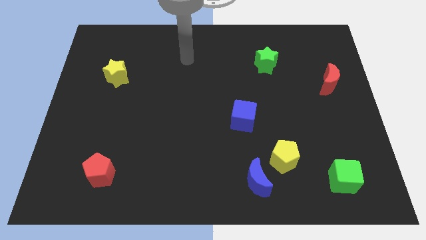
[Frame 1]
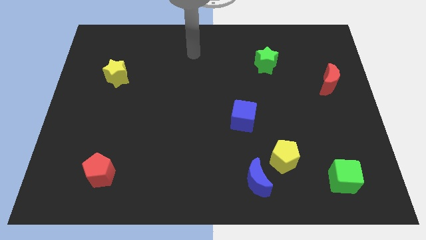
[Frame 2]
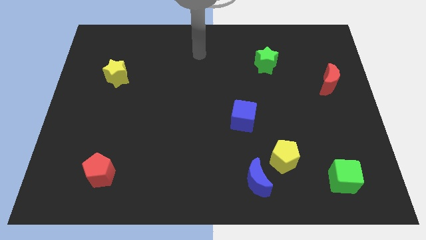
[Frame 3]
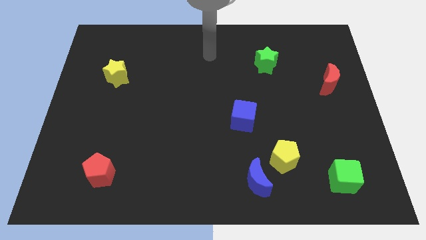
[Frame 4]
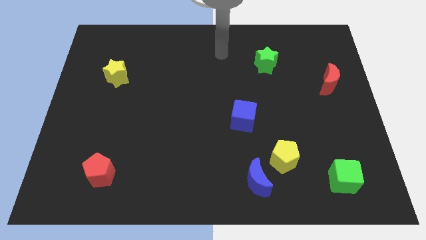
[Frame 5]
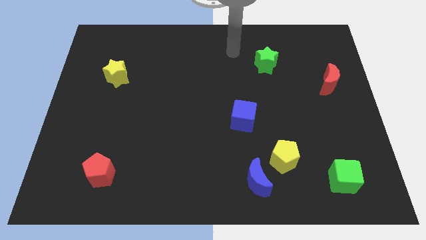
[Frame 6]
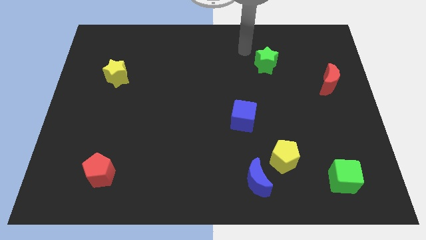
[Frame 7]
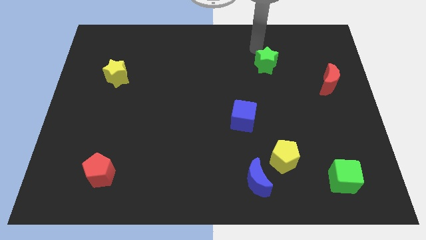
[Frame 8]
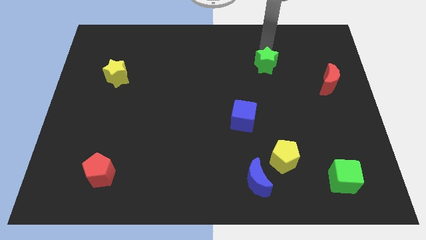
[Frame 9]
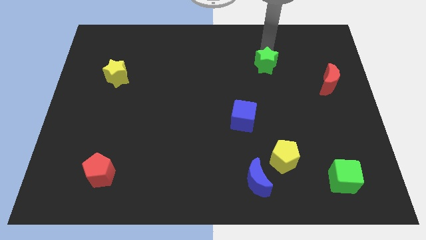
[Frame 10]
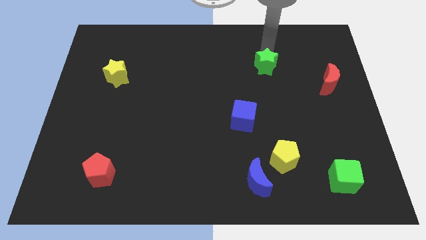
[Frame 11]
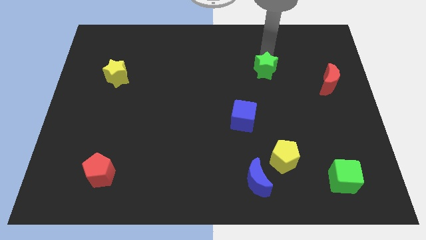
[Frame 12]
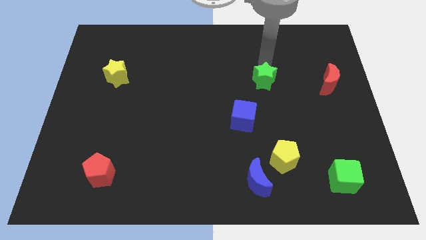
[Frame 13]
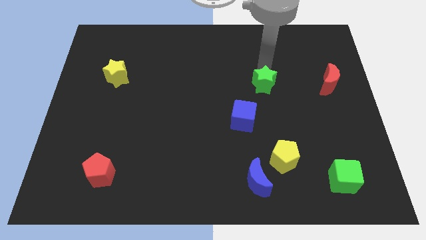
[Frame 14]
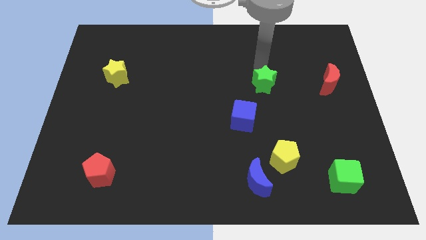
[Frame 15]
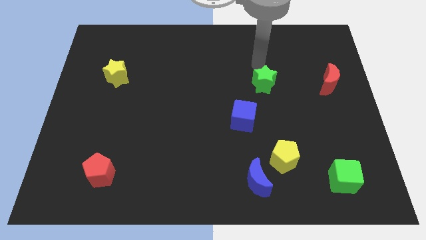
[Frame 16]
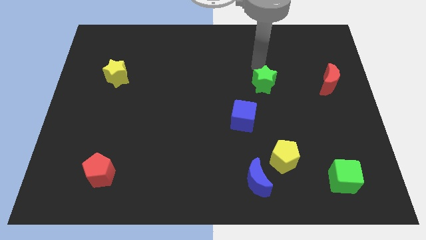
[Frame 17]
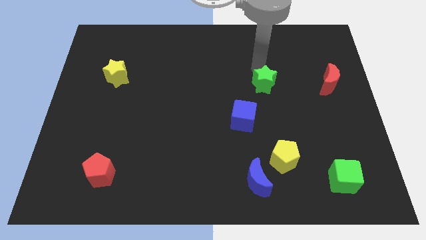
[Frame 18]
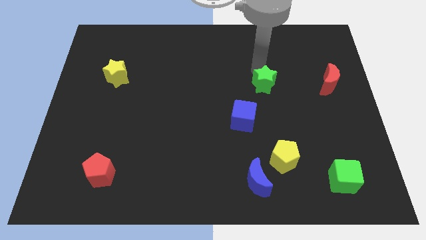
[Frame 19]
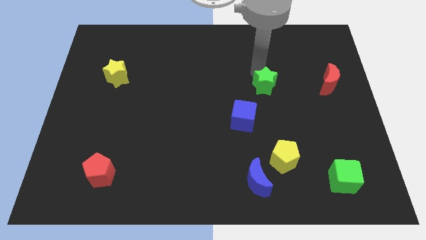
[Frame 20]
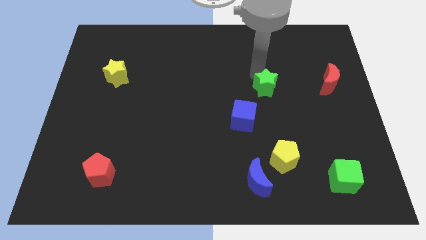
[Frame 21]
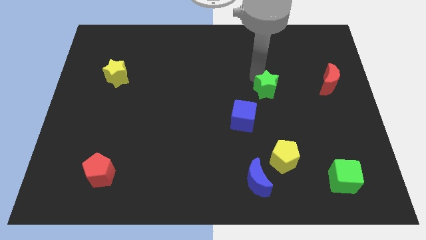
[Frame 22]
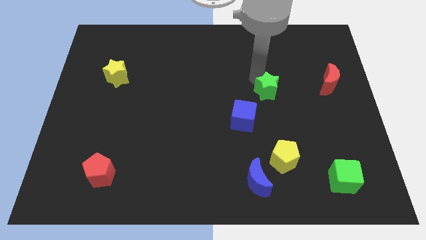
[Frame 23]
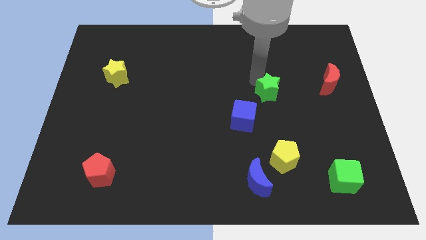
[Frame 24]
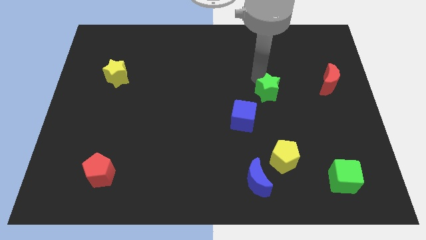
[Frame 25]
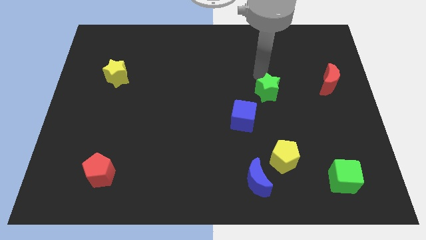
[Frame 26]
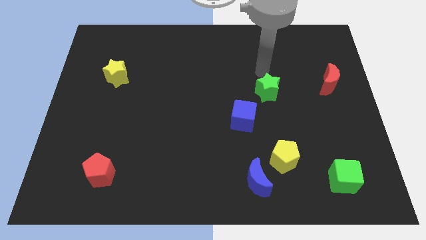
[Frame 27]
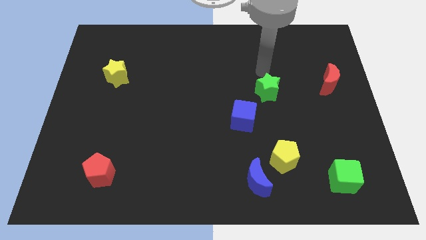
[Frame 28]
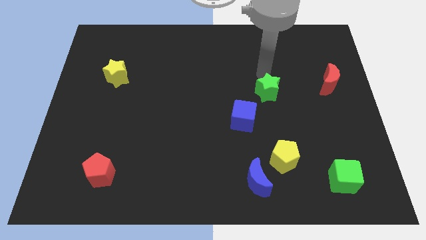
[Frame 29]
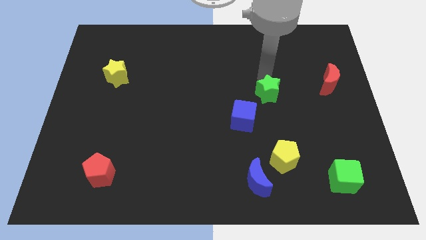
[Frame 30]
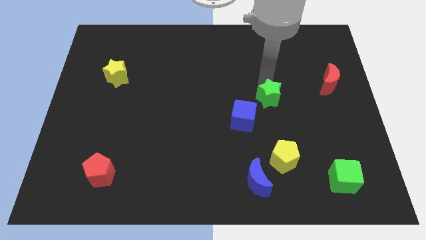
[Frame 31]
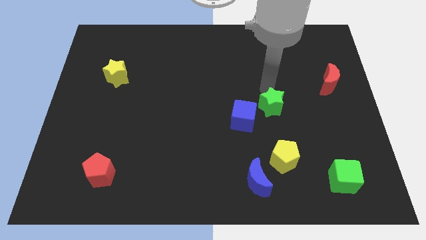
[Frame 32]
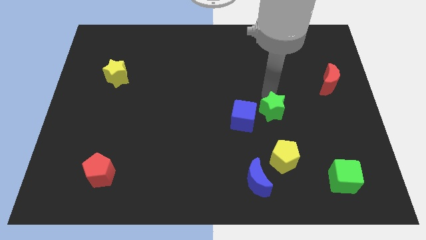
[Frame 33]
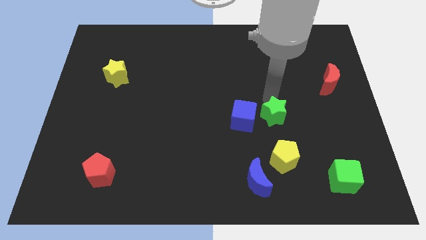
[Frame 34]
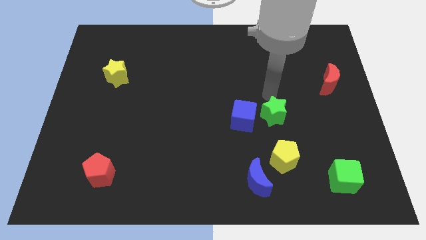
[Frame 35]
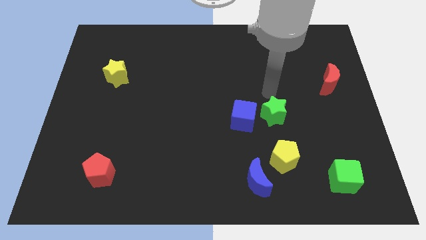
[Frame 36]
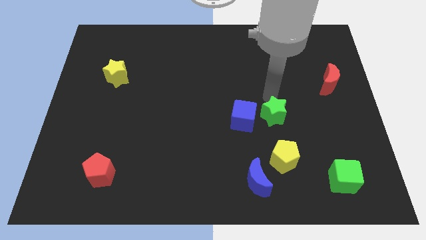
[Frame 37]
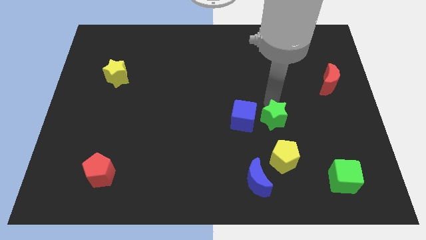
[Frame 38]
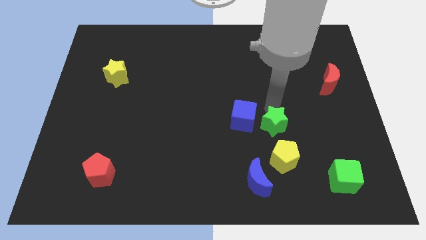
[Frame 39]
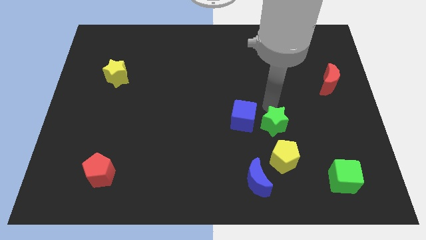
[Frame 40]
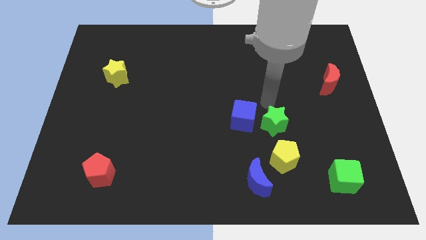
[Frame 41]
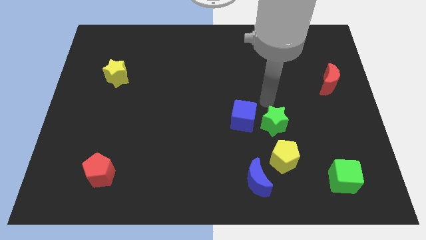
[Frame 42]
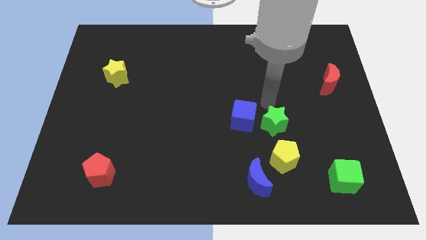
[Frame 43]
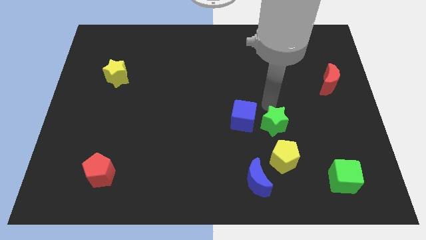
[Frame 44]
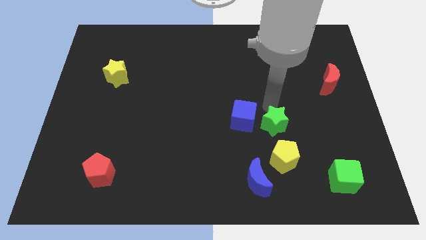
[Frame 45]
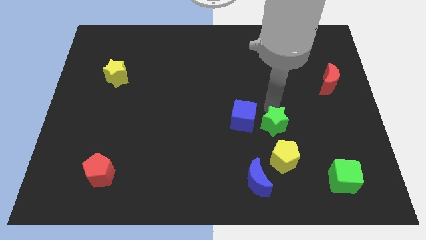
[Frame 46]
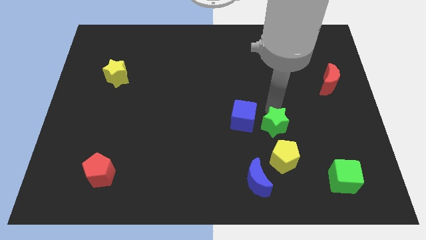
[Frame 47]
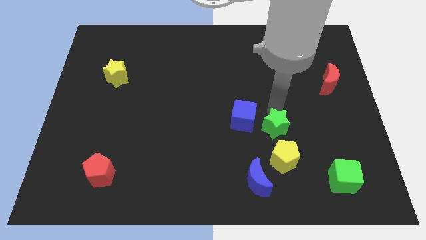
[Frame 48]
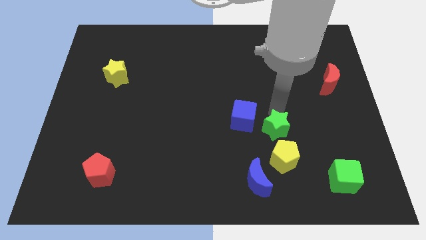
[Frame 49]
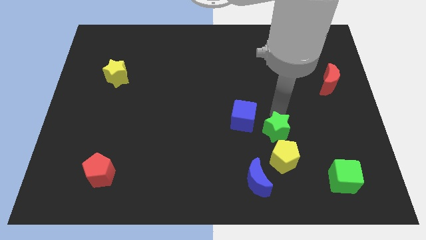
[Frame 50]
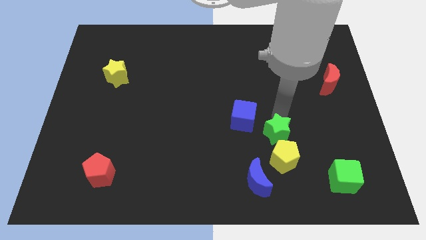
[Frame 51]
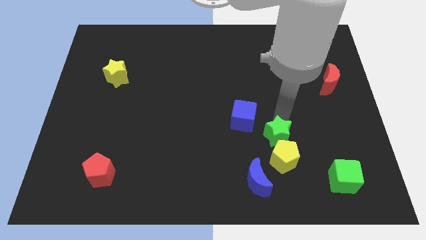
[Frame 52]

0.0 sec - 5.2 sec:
slide the green star close to the yellow pentagon

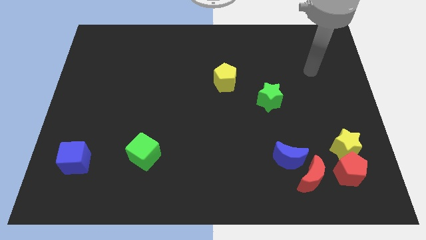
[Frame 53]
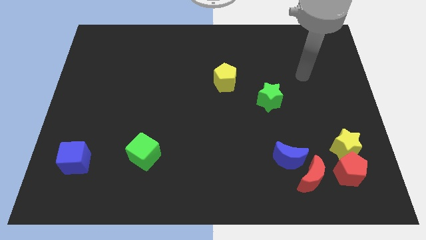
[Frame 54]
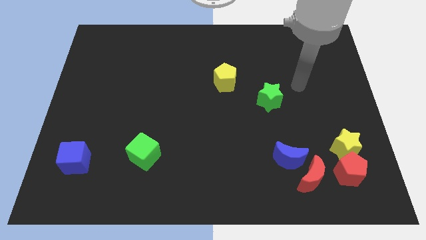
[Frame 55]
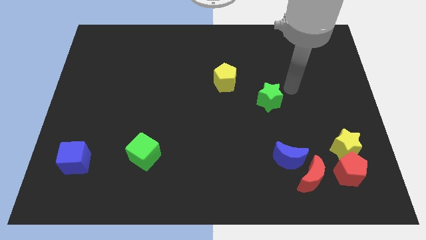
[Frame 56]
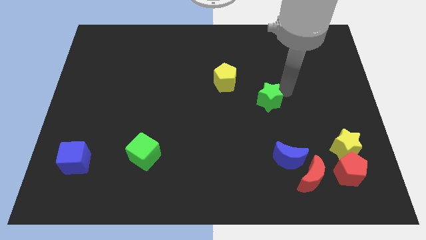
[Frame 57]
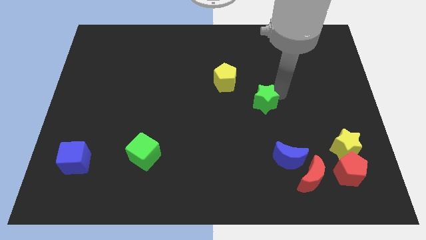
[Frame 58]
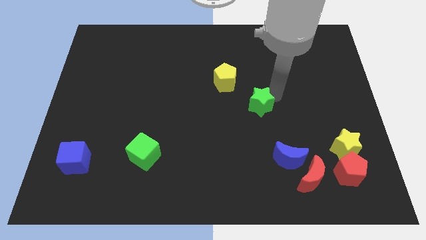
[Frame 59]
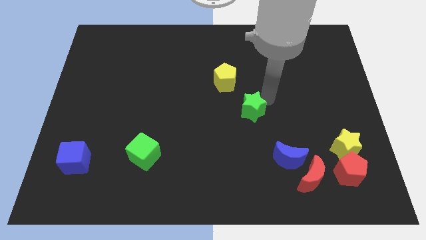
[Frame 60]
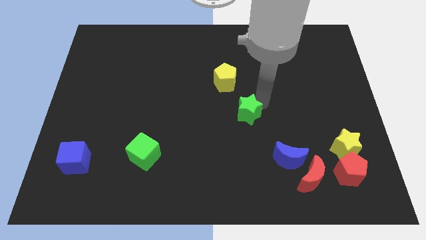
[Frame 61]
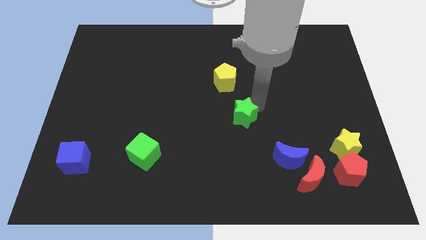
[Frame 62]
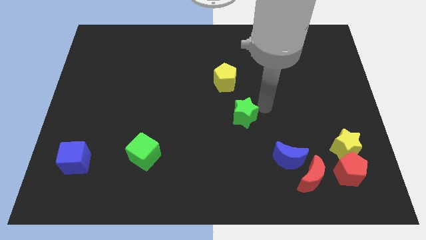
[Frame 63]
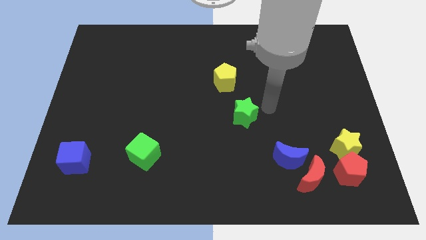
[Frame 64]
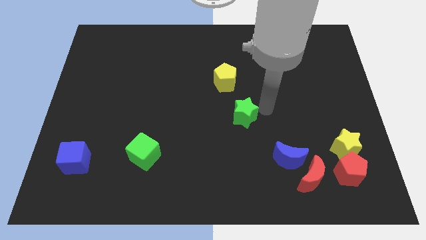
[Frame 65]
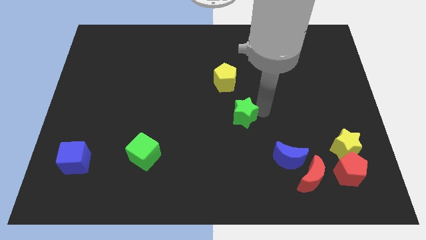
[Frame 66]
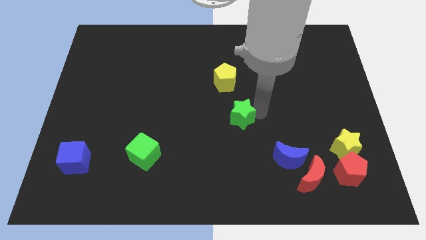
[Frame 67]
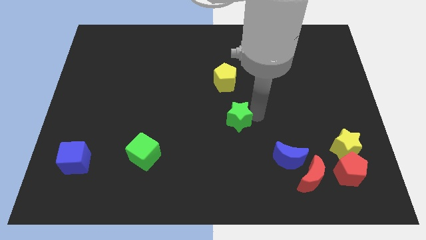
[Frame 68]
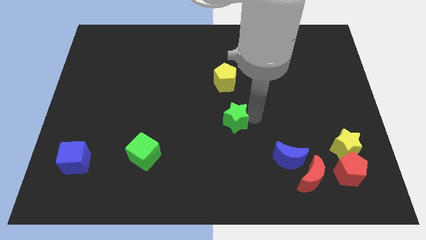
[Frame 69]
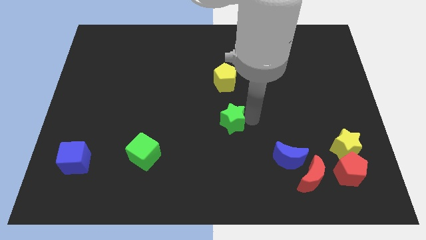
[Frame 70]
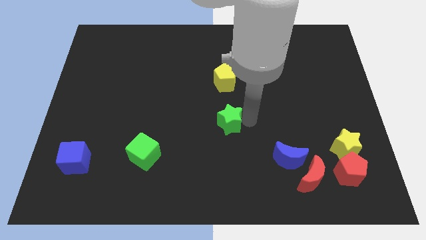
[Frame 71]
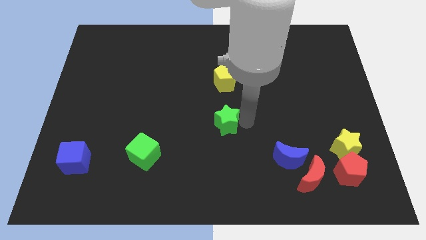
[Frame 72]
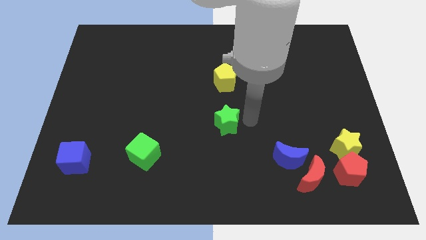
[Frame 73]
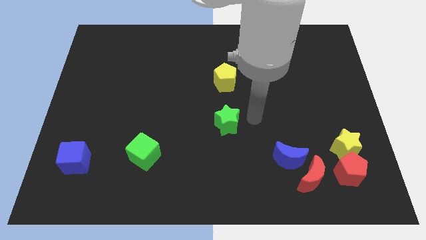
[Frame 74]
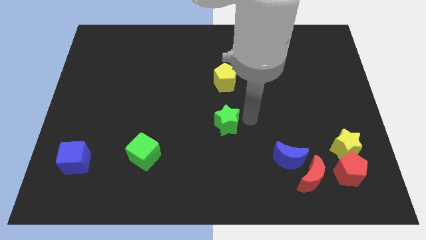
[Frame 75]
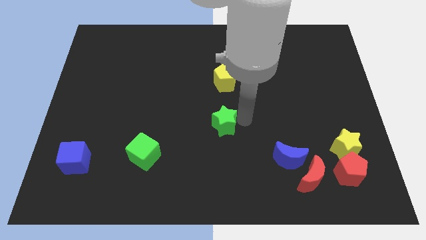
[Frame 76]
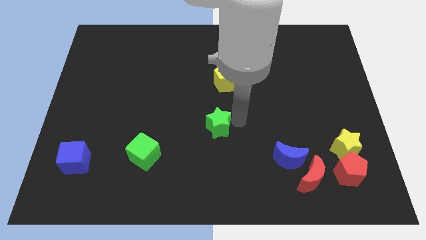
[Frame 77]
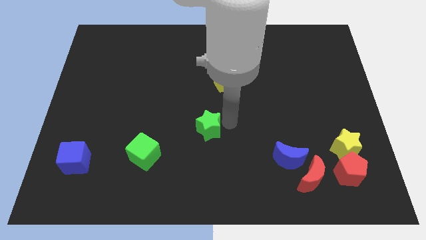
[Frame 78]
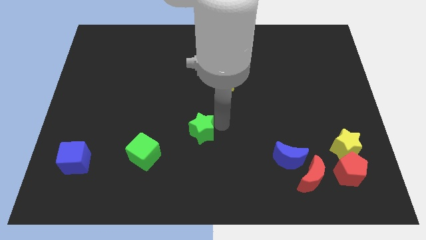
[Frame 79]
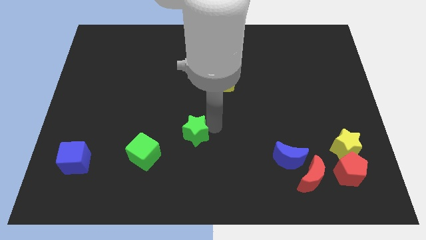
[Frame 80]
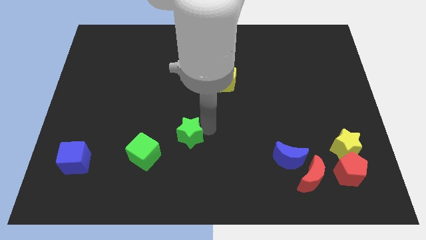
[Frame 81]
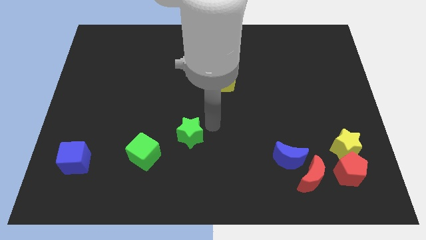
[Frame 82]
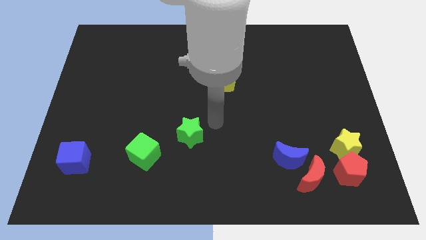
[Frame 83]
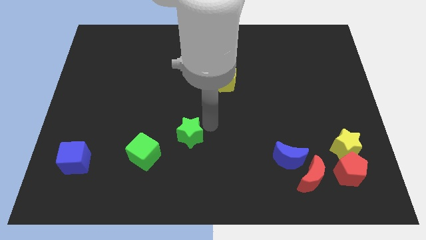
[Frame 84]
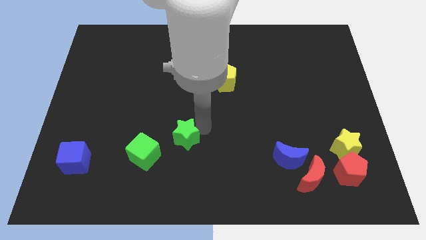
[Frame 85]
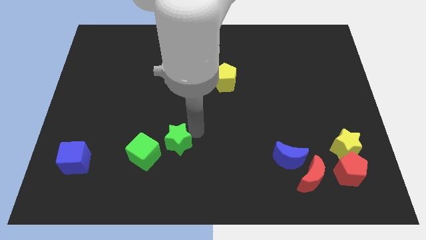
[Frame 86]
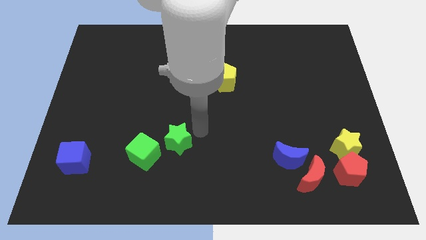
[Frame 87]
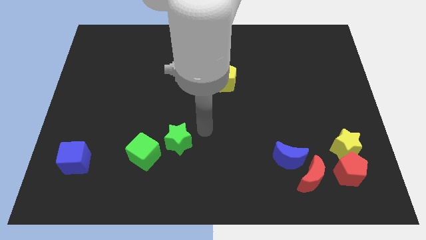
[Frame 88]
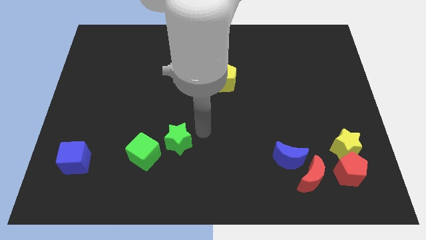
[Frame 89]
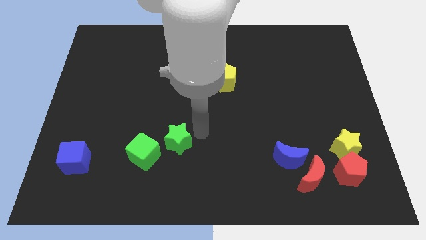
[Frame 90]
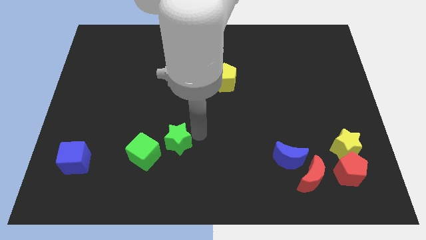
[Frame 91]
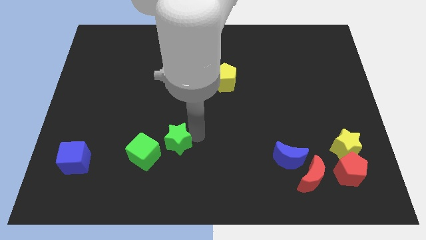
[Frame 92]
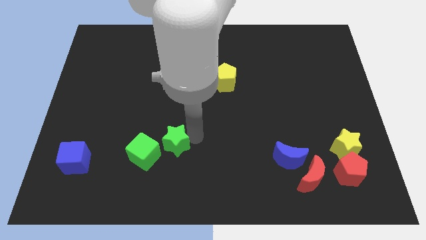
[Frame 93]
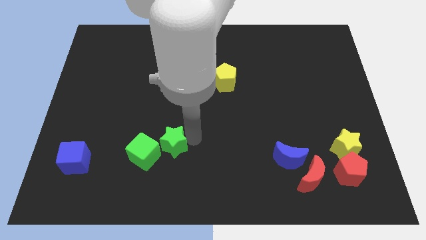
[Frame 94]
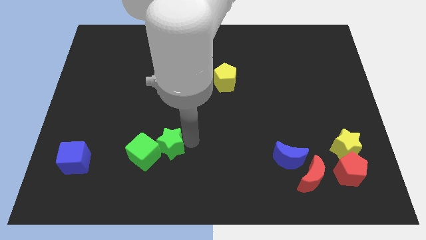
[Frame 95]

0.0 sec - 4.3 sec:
move the green star close to the green cube
